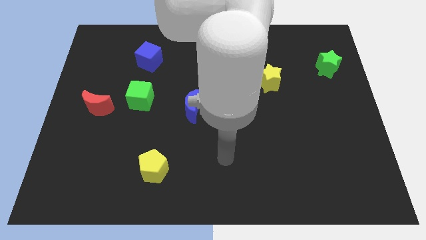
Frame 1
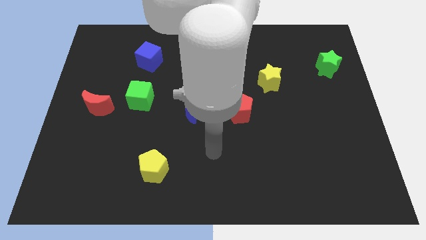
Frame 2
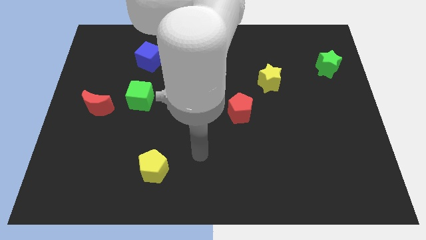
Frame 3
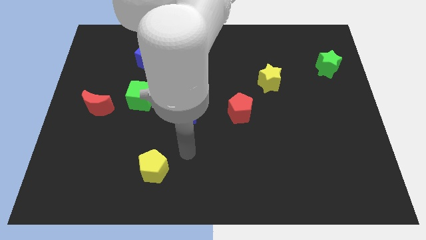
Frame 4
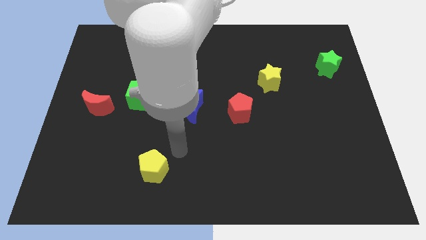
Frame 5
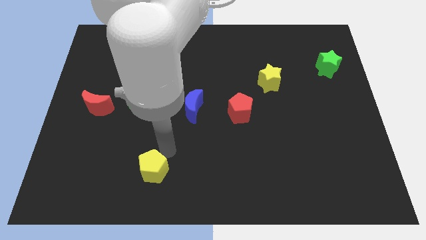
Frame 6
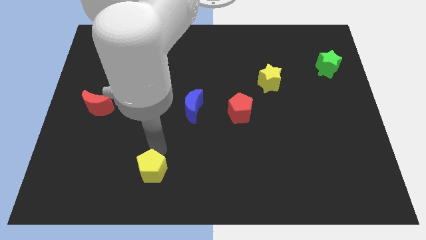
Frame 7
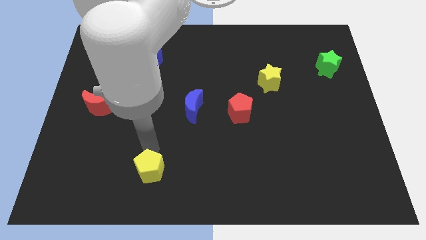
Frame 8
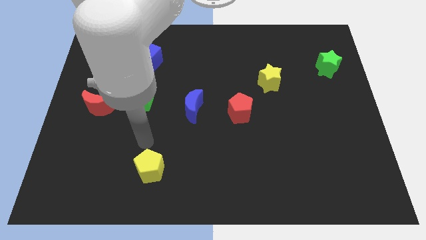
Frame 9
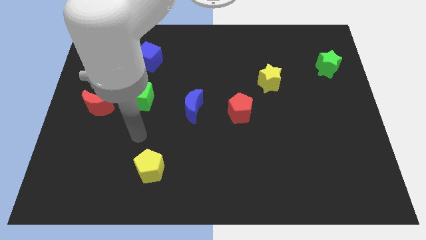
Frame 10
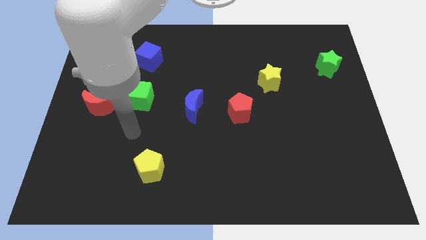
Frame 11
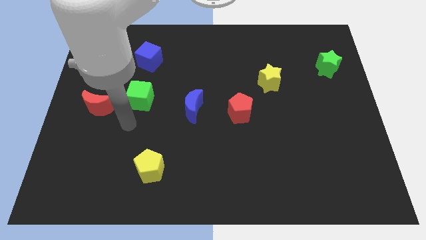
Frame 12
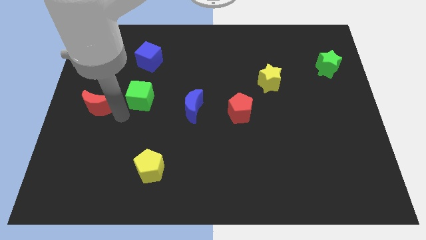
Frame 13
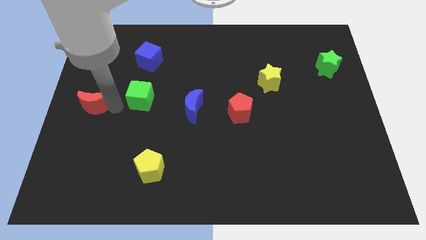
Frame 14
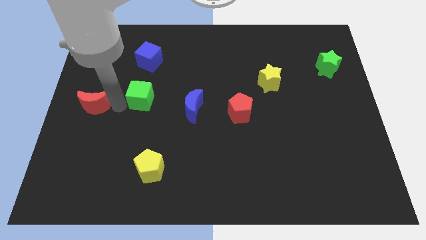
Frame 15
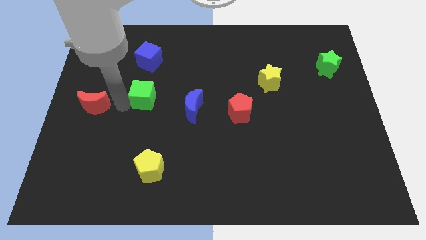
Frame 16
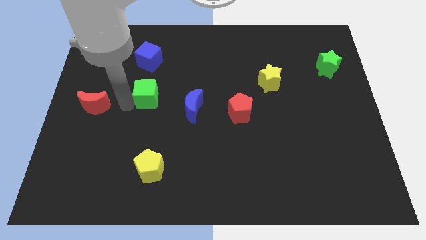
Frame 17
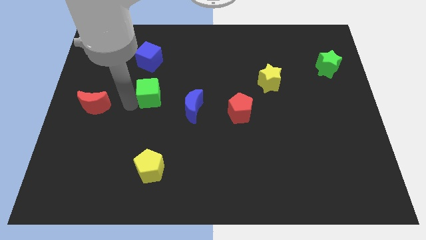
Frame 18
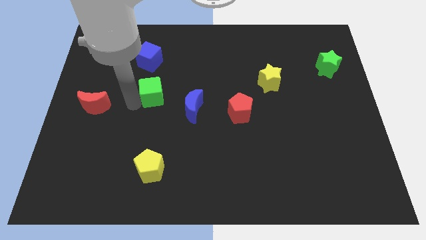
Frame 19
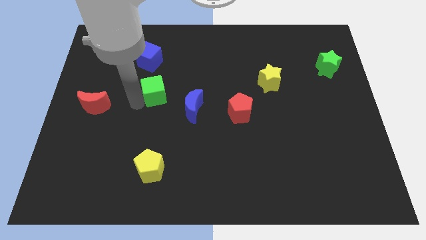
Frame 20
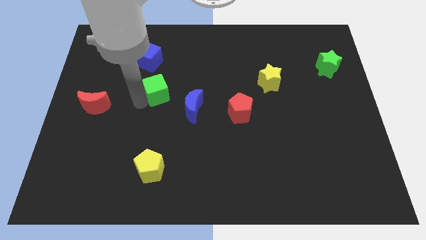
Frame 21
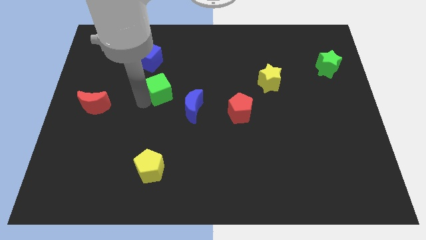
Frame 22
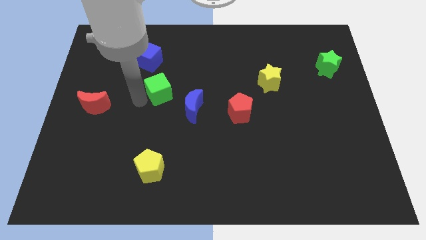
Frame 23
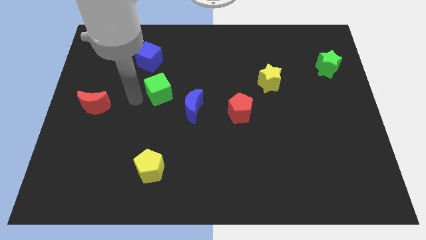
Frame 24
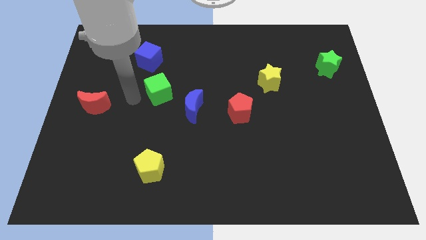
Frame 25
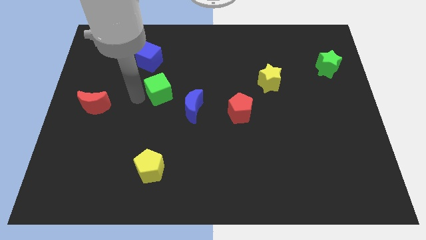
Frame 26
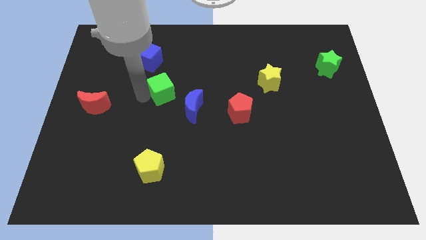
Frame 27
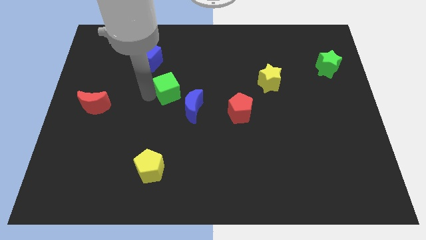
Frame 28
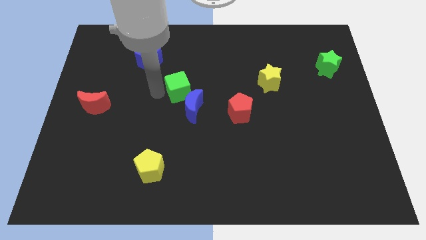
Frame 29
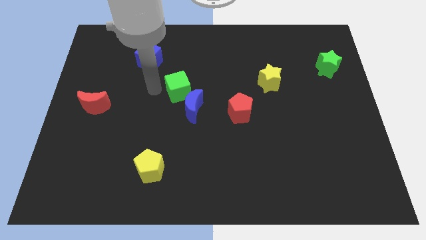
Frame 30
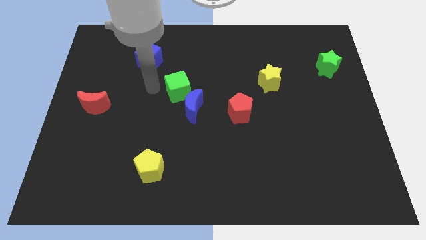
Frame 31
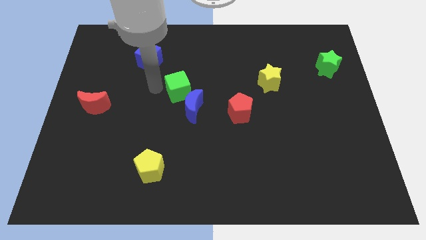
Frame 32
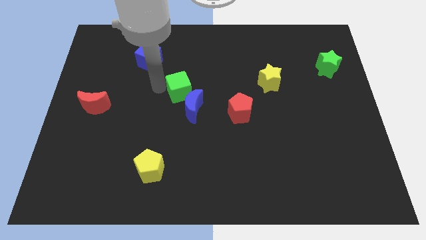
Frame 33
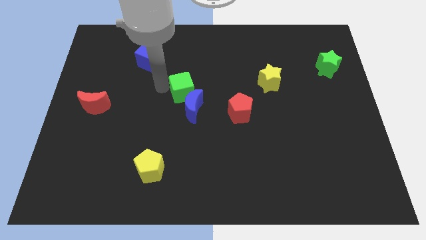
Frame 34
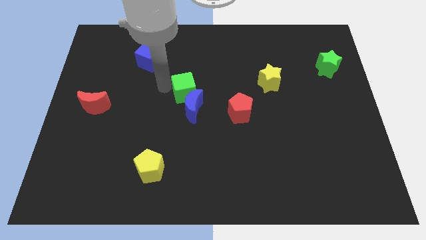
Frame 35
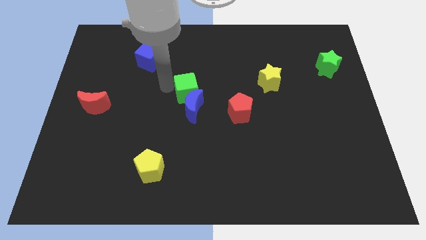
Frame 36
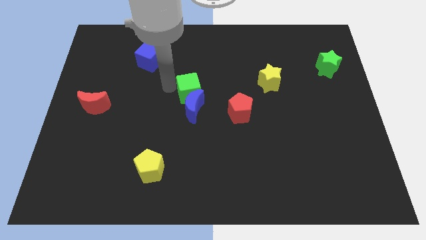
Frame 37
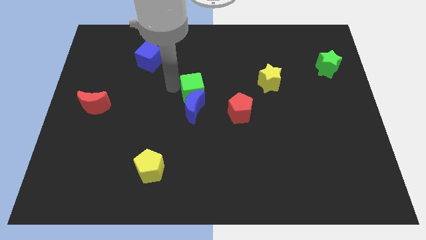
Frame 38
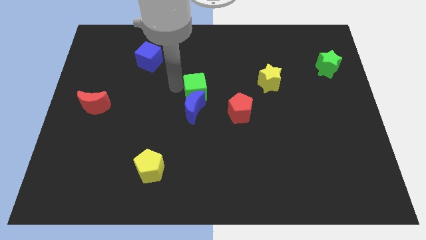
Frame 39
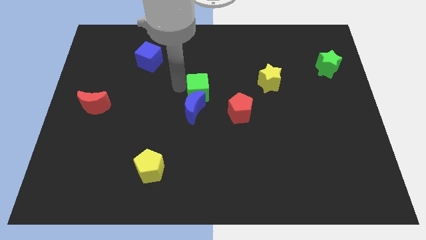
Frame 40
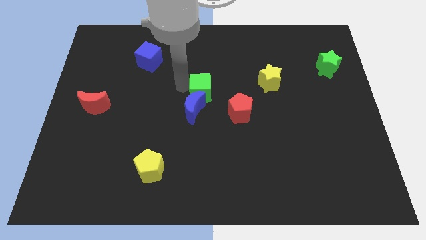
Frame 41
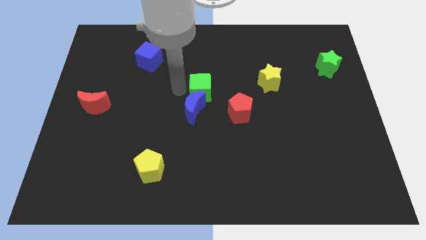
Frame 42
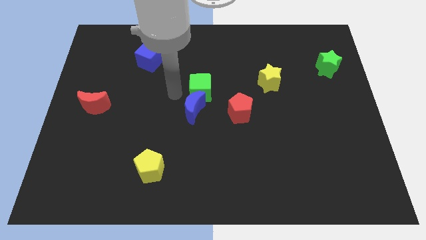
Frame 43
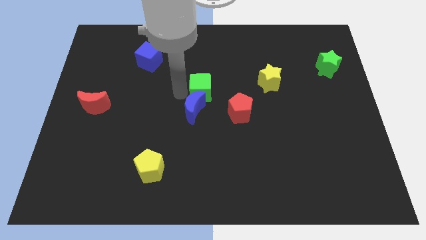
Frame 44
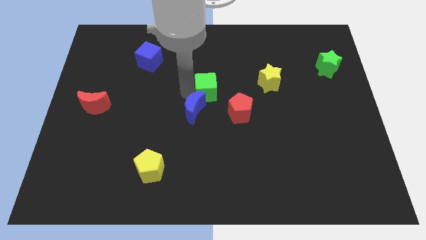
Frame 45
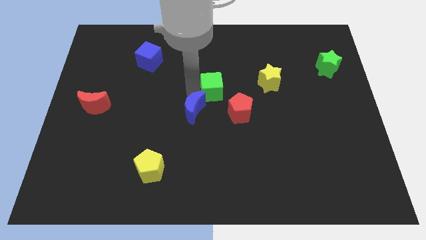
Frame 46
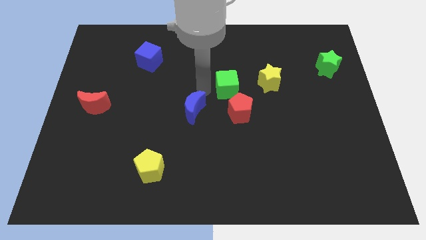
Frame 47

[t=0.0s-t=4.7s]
move the green cube right

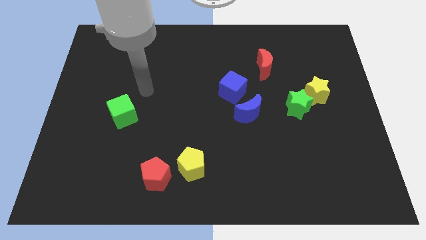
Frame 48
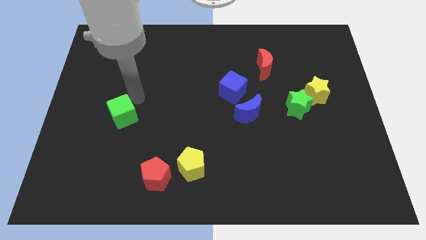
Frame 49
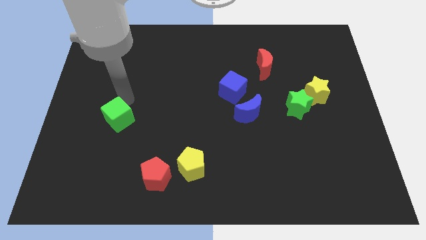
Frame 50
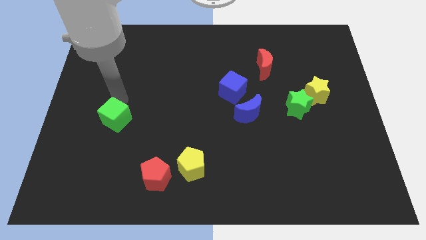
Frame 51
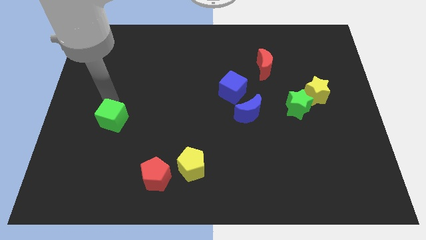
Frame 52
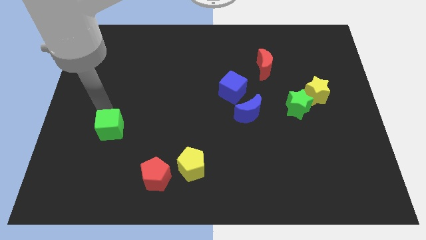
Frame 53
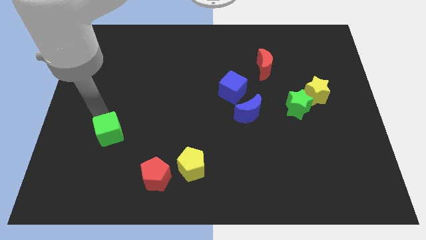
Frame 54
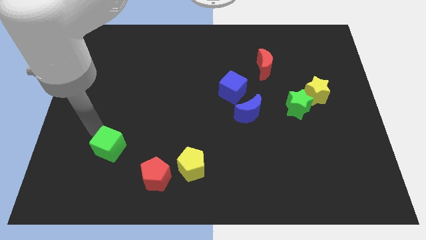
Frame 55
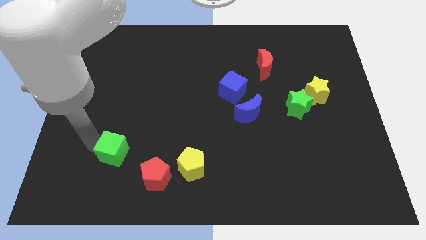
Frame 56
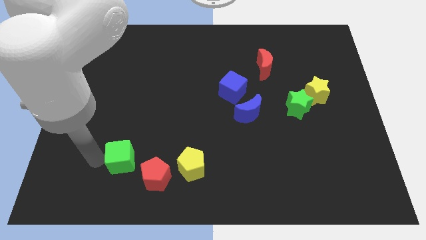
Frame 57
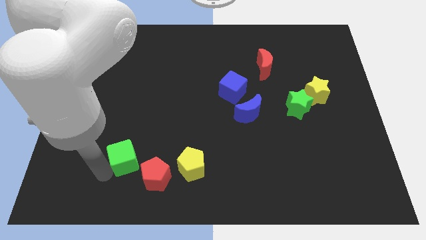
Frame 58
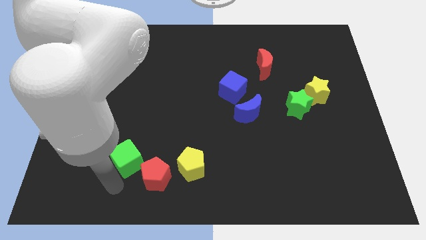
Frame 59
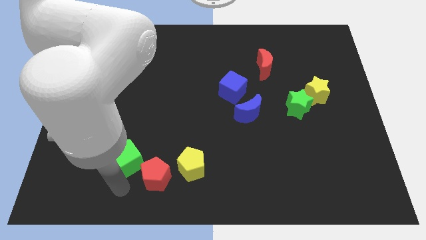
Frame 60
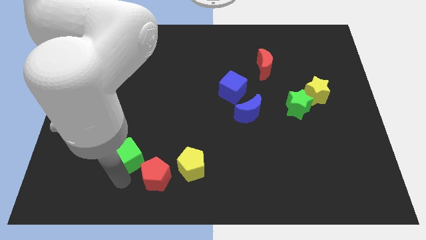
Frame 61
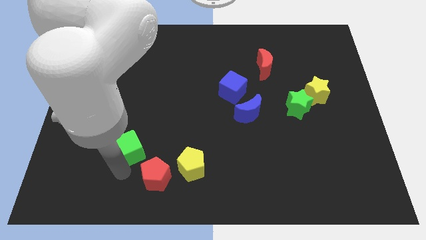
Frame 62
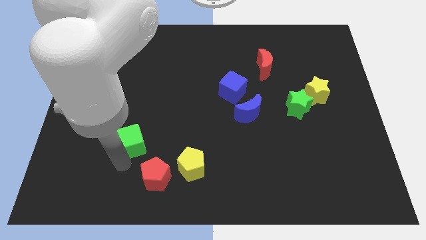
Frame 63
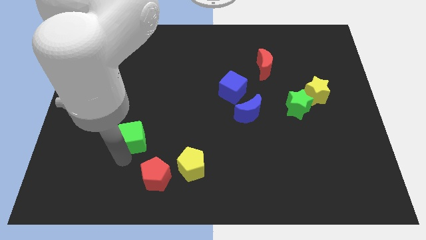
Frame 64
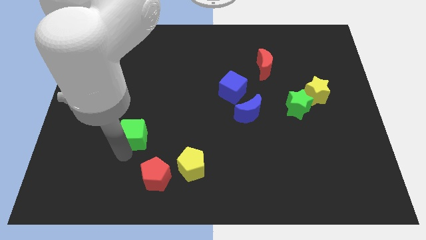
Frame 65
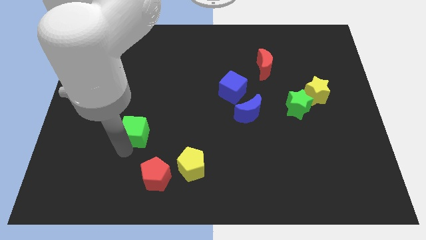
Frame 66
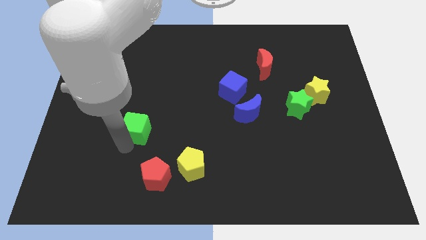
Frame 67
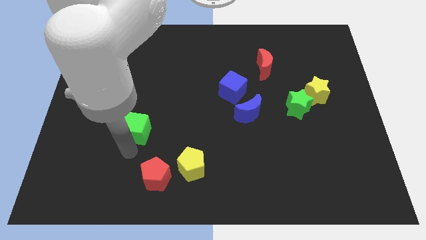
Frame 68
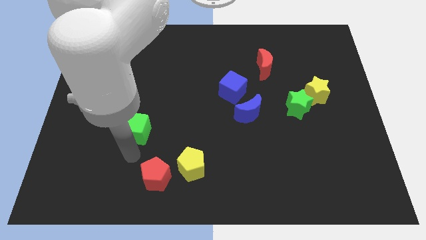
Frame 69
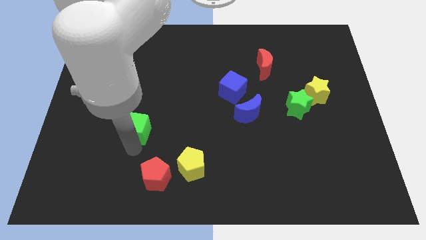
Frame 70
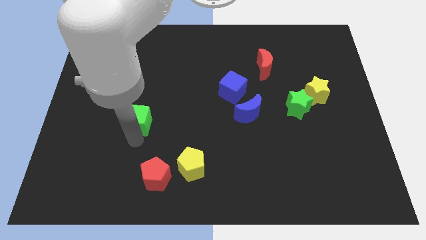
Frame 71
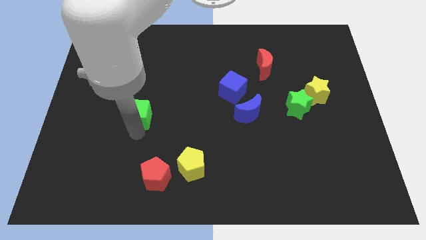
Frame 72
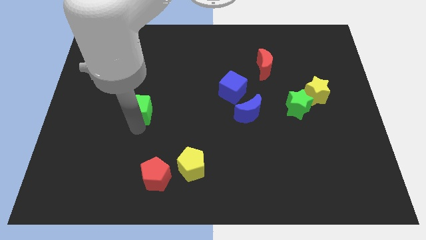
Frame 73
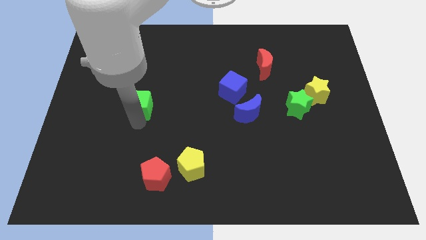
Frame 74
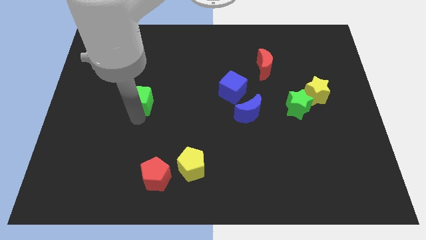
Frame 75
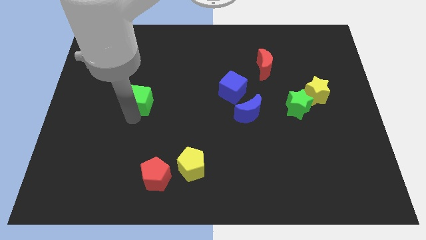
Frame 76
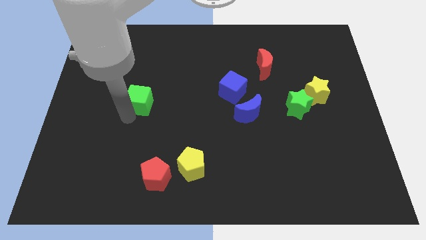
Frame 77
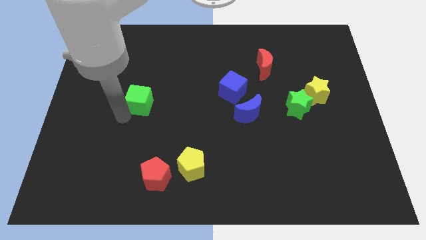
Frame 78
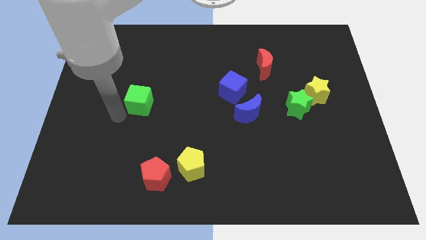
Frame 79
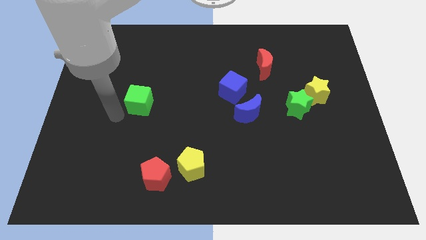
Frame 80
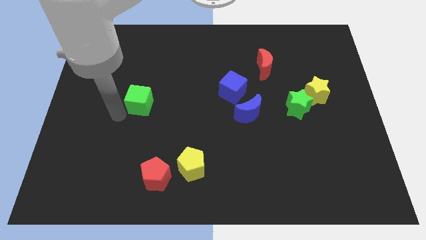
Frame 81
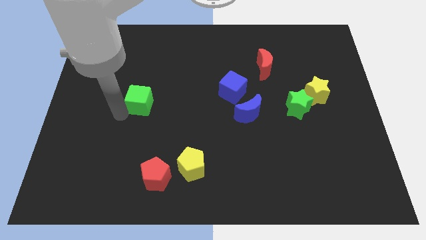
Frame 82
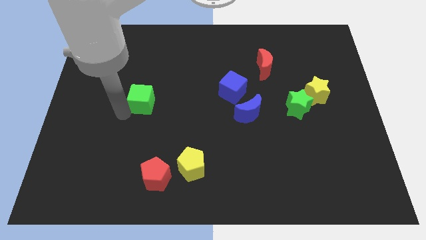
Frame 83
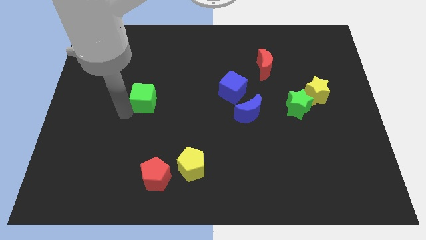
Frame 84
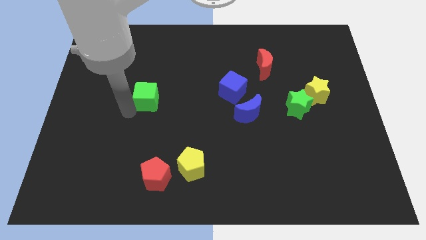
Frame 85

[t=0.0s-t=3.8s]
slightly move the green cube upwards and to the right diagonally
